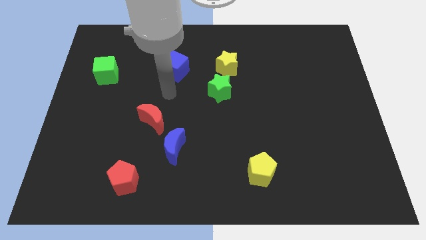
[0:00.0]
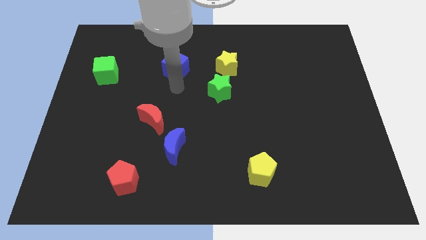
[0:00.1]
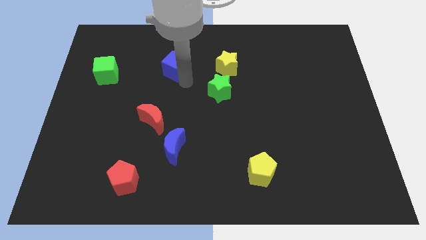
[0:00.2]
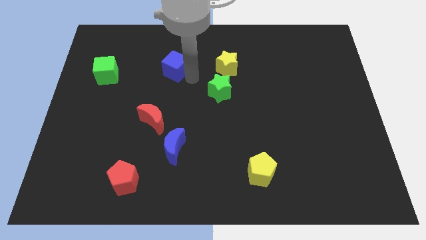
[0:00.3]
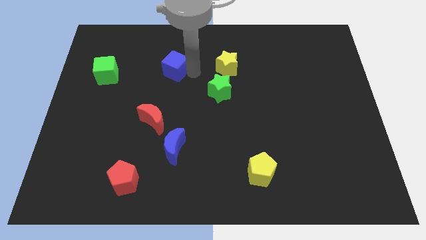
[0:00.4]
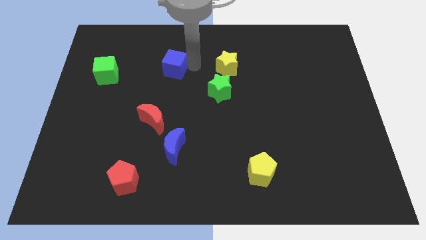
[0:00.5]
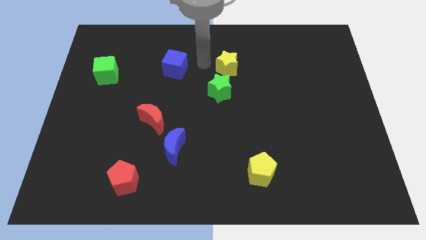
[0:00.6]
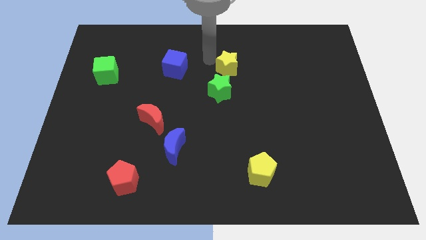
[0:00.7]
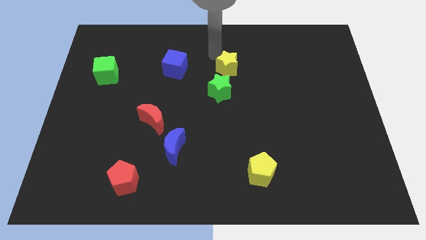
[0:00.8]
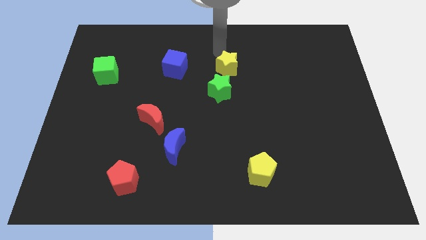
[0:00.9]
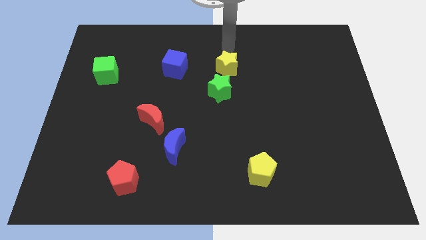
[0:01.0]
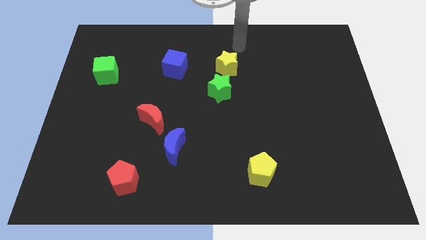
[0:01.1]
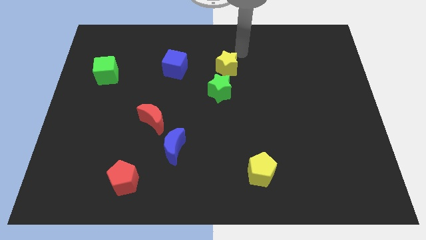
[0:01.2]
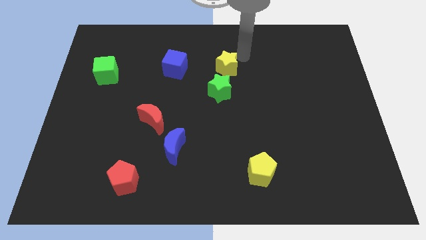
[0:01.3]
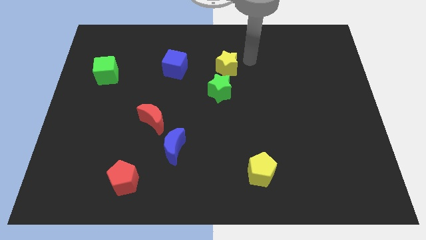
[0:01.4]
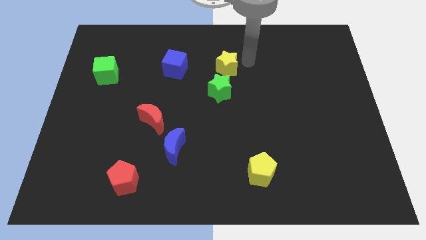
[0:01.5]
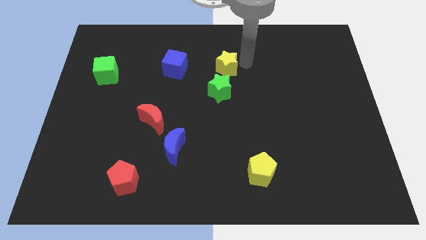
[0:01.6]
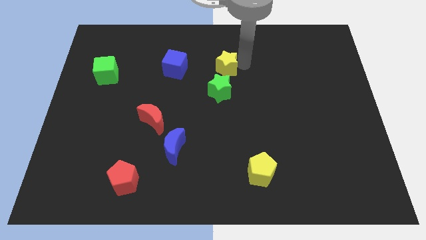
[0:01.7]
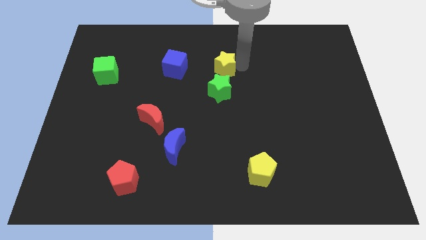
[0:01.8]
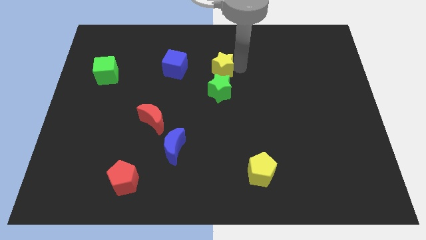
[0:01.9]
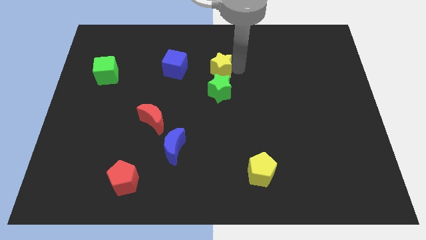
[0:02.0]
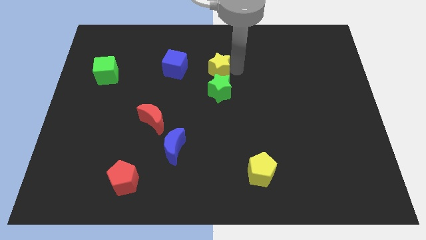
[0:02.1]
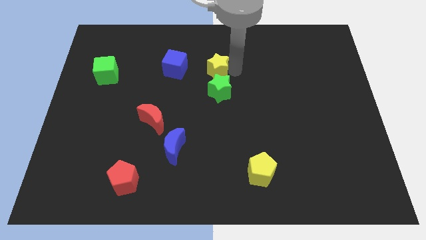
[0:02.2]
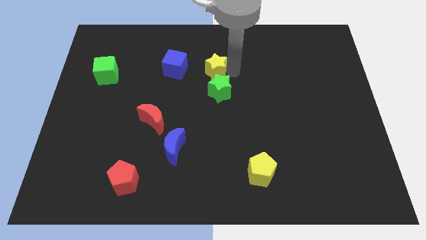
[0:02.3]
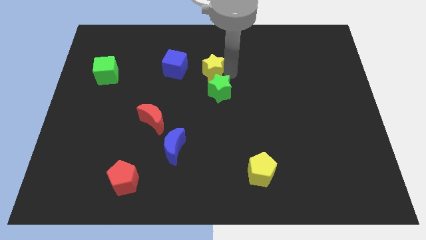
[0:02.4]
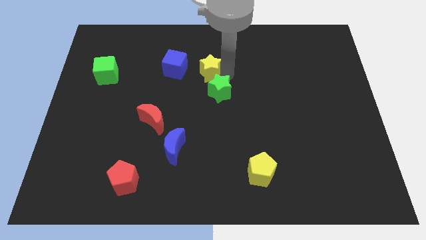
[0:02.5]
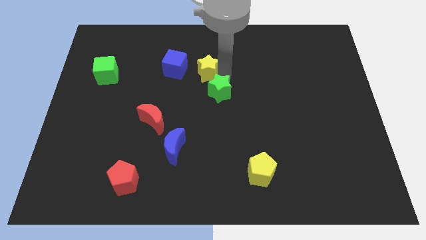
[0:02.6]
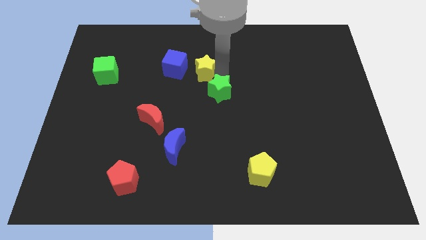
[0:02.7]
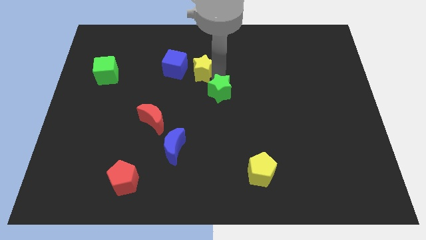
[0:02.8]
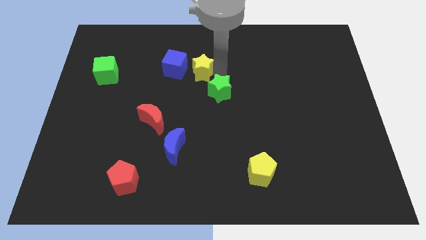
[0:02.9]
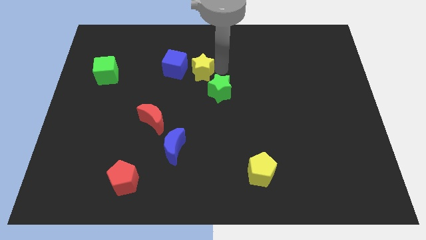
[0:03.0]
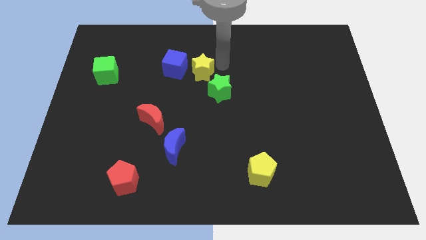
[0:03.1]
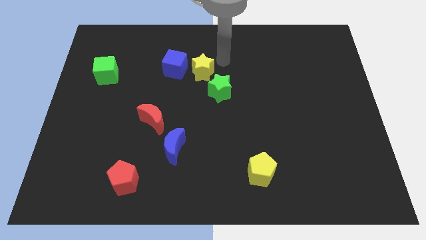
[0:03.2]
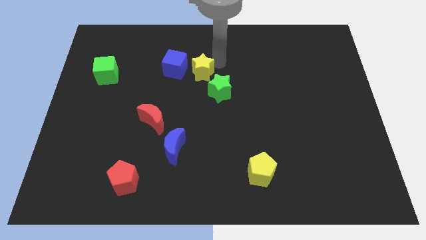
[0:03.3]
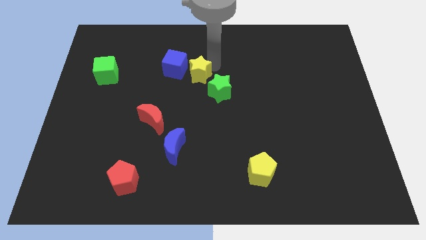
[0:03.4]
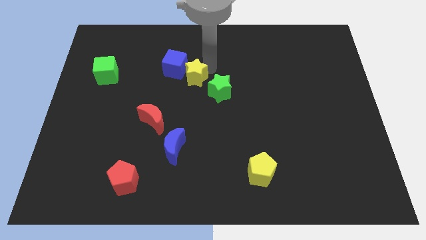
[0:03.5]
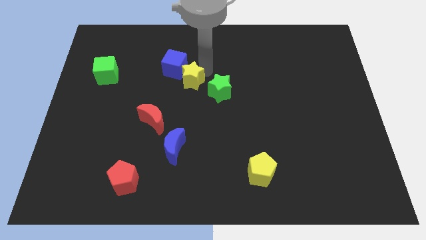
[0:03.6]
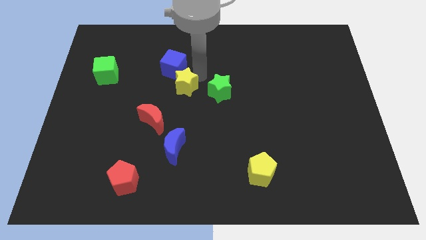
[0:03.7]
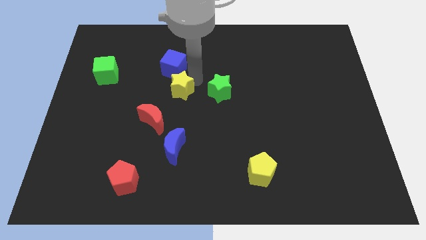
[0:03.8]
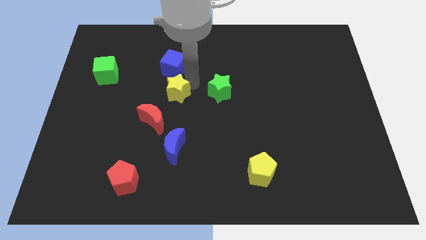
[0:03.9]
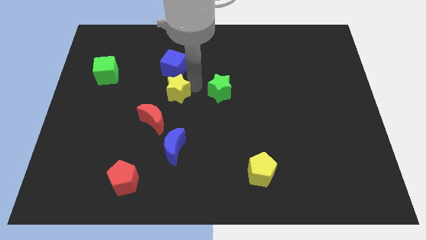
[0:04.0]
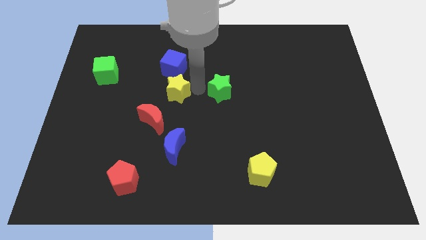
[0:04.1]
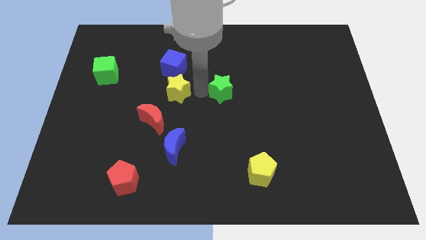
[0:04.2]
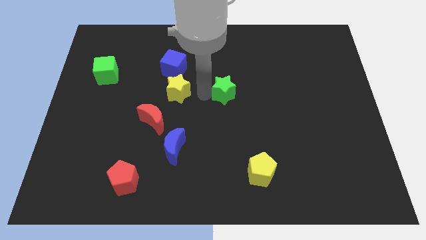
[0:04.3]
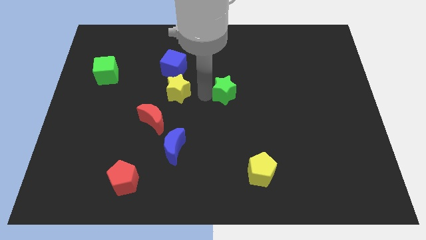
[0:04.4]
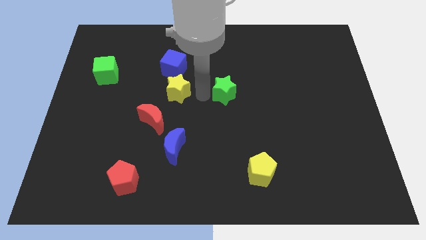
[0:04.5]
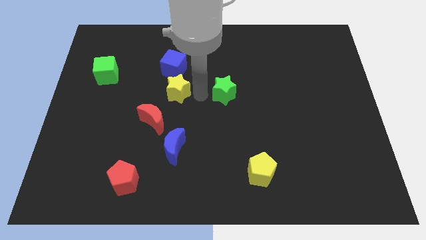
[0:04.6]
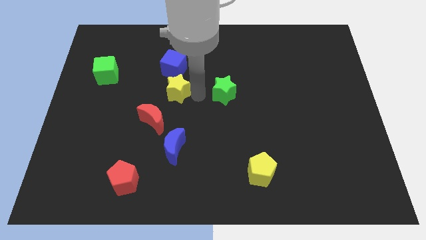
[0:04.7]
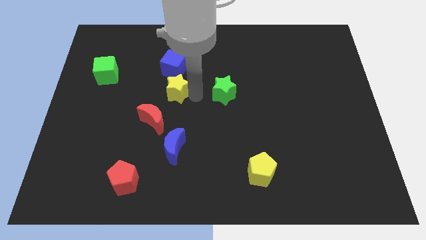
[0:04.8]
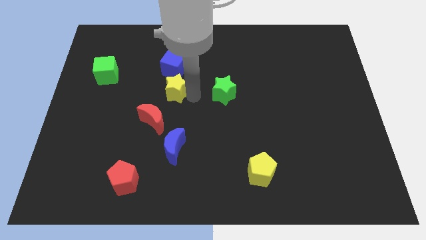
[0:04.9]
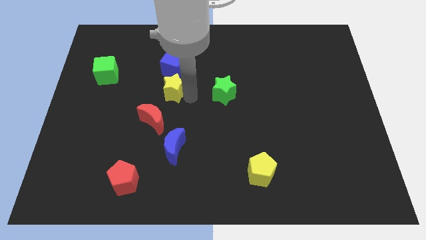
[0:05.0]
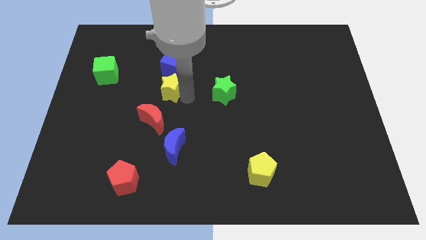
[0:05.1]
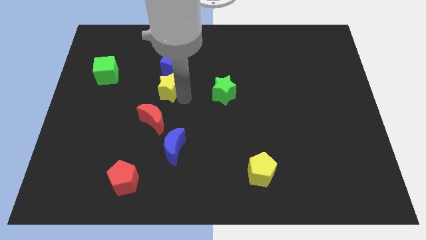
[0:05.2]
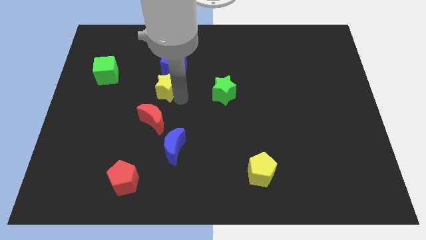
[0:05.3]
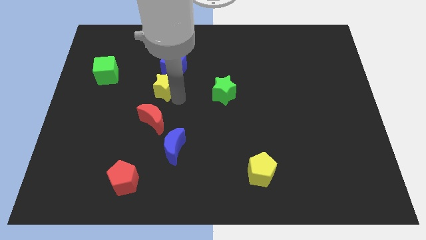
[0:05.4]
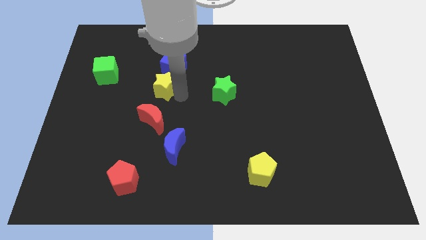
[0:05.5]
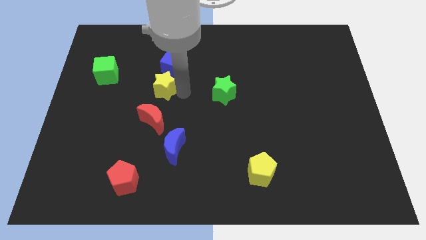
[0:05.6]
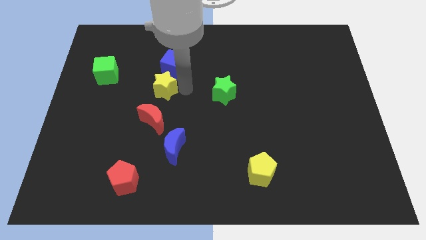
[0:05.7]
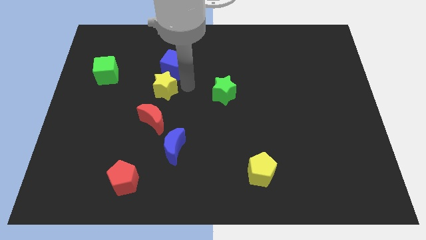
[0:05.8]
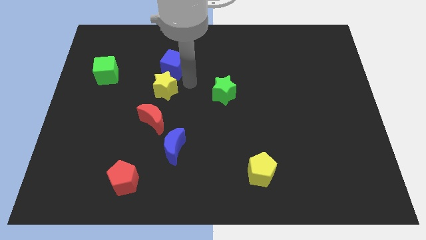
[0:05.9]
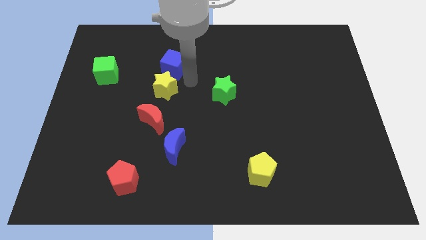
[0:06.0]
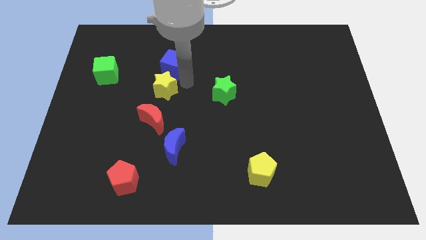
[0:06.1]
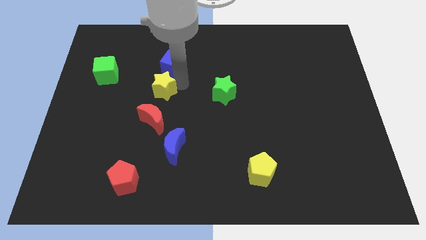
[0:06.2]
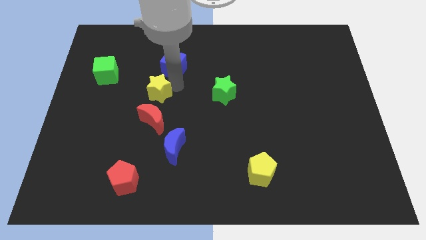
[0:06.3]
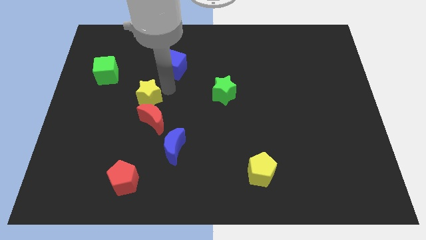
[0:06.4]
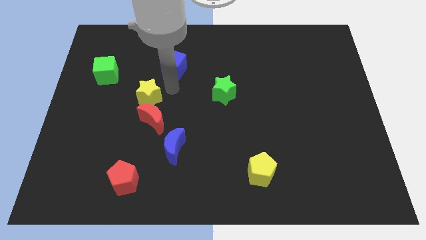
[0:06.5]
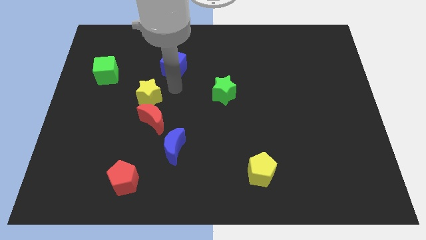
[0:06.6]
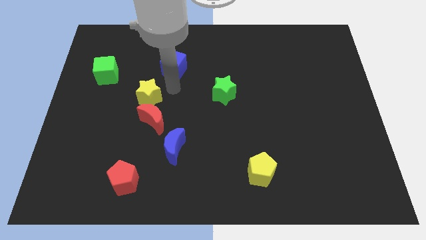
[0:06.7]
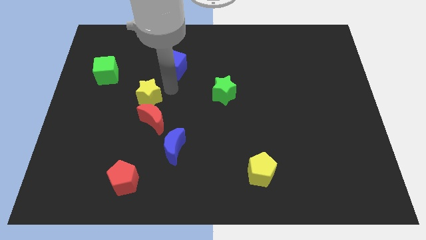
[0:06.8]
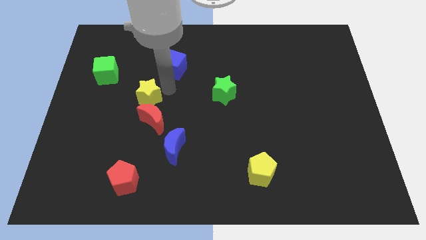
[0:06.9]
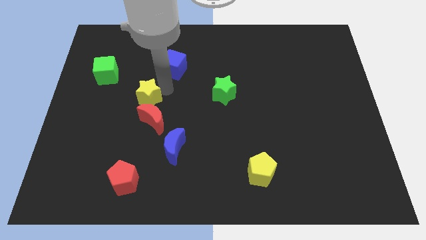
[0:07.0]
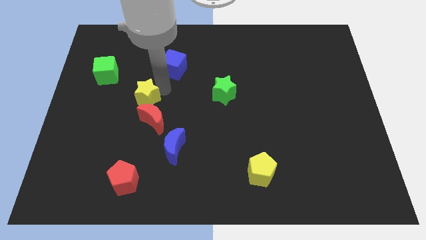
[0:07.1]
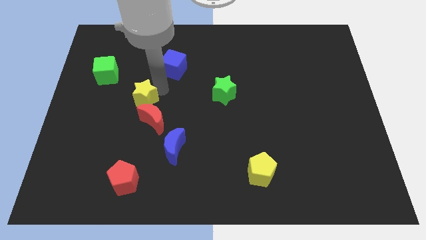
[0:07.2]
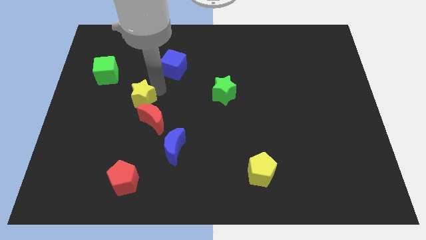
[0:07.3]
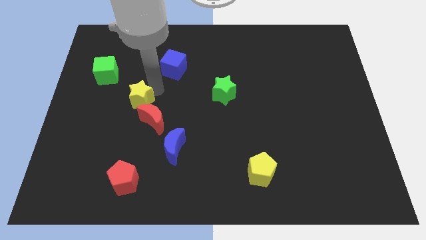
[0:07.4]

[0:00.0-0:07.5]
move the yellow star down and left diagonally

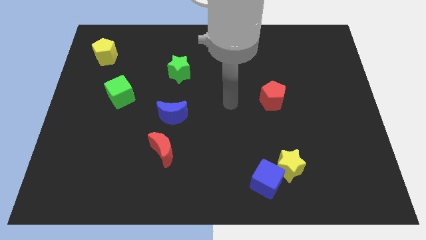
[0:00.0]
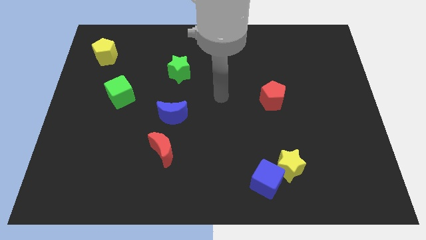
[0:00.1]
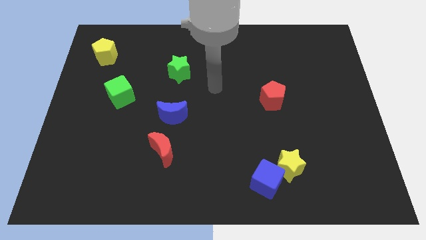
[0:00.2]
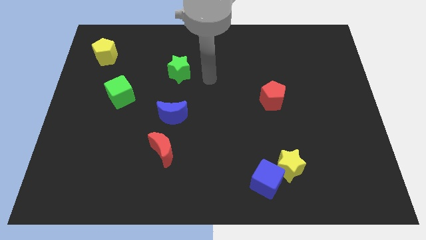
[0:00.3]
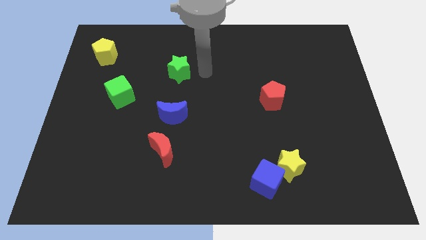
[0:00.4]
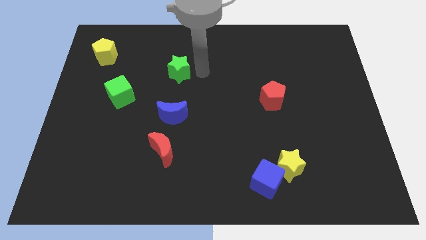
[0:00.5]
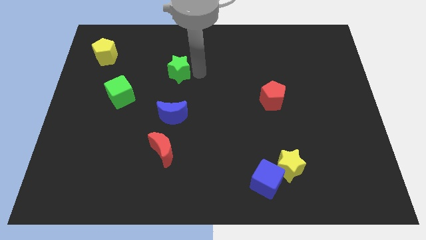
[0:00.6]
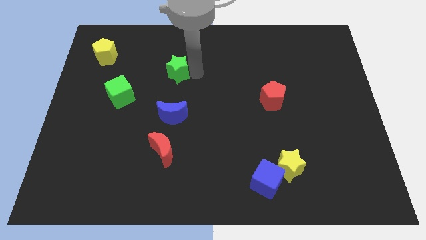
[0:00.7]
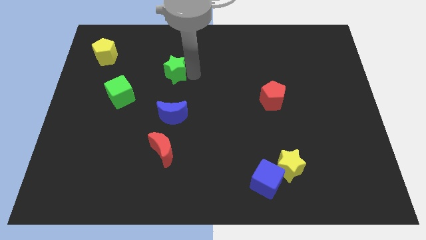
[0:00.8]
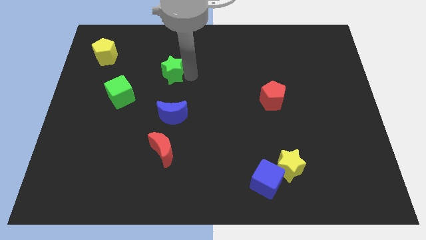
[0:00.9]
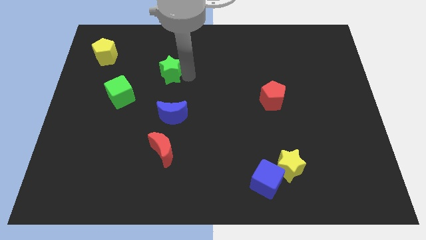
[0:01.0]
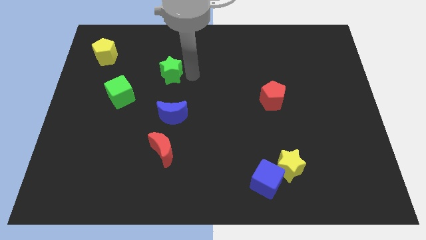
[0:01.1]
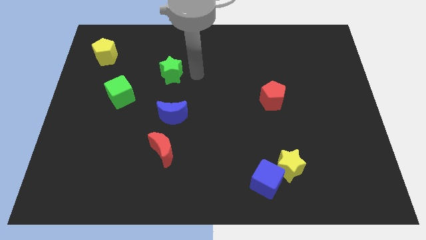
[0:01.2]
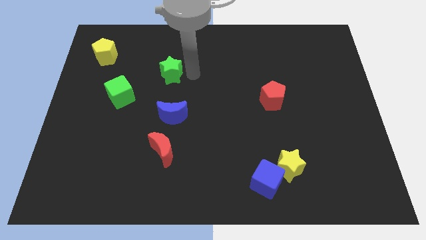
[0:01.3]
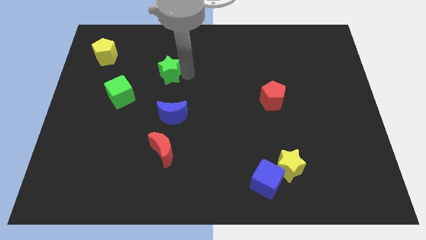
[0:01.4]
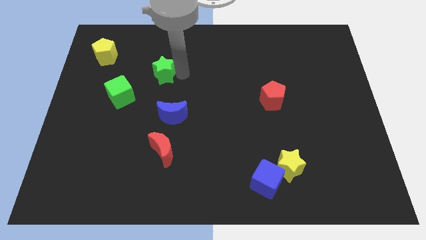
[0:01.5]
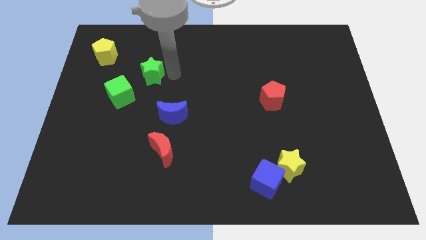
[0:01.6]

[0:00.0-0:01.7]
slightly push the green star to the left
